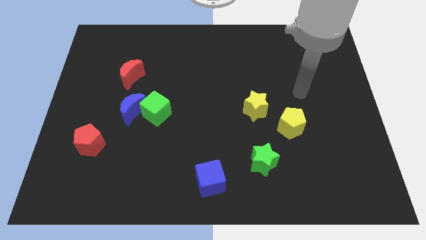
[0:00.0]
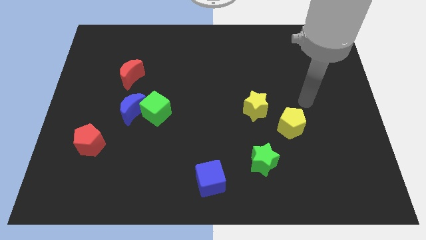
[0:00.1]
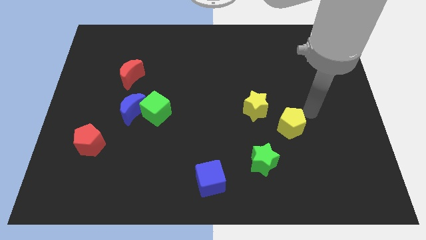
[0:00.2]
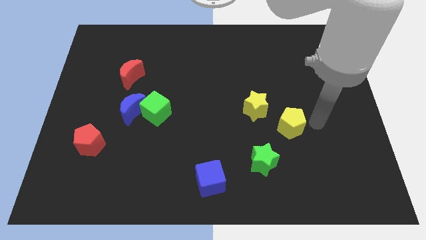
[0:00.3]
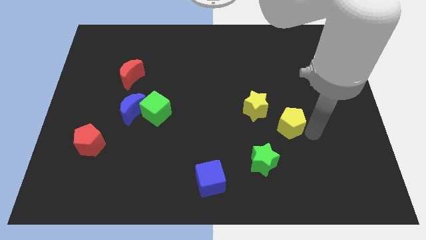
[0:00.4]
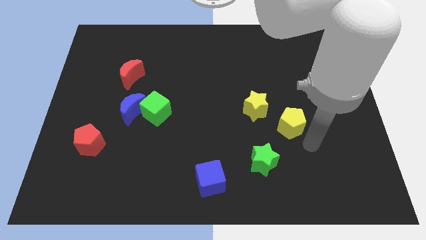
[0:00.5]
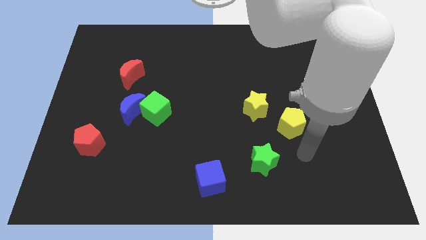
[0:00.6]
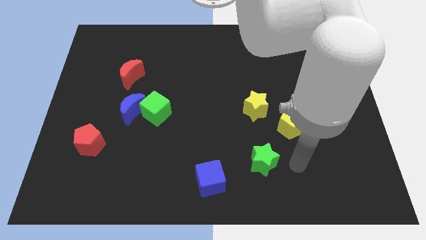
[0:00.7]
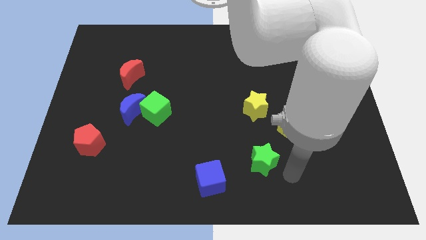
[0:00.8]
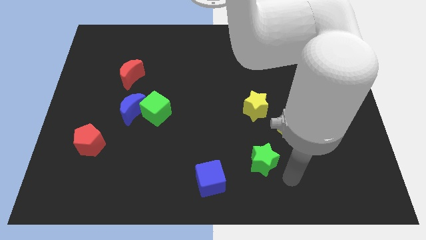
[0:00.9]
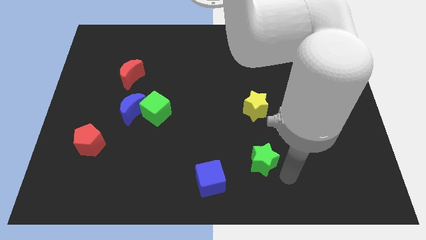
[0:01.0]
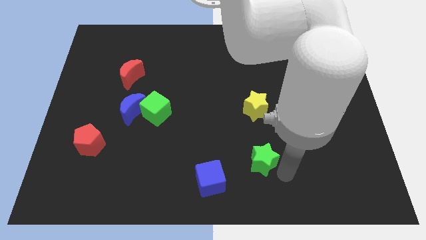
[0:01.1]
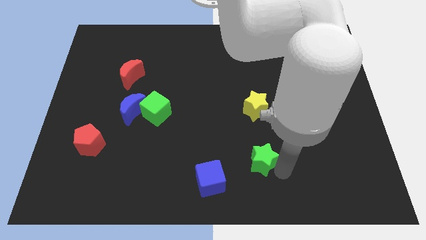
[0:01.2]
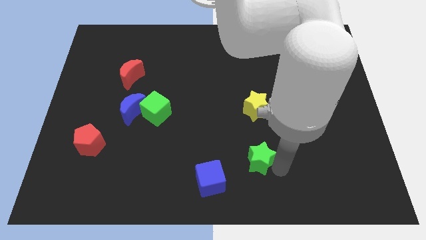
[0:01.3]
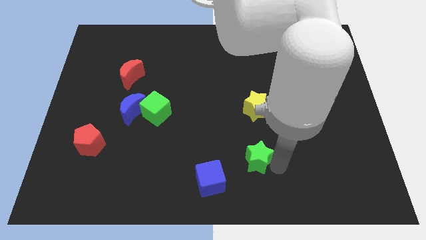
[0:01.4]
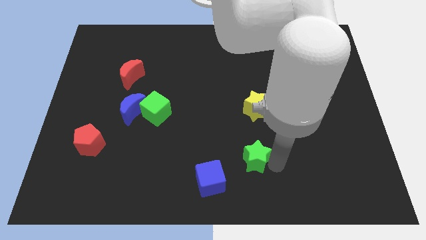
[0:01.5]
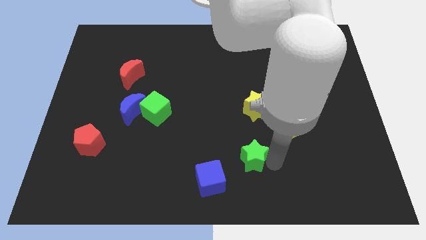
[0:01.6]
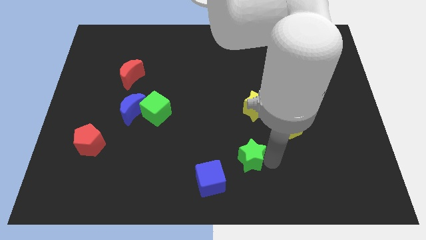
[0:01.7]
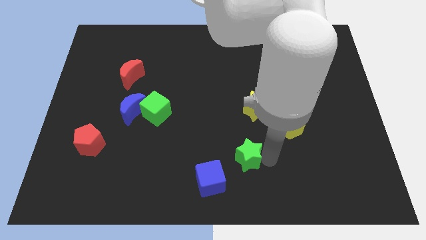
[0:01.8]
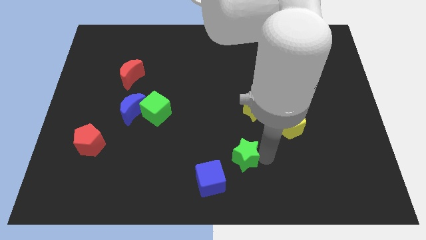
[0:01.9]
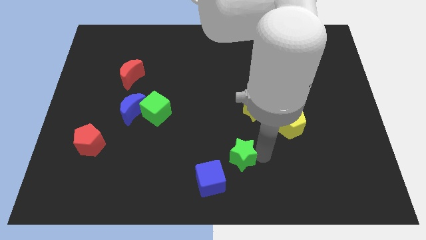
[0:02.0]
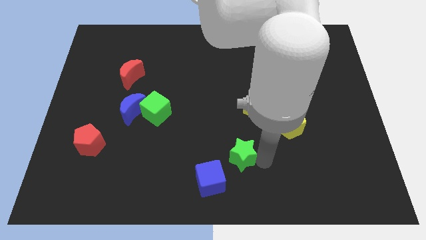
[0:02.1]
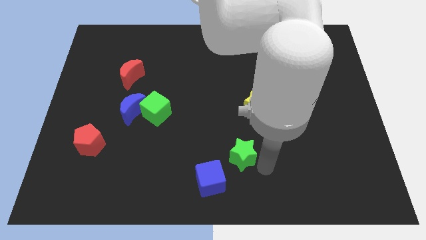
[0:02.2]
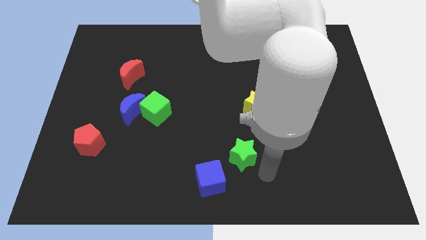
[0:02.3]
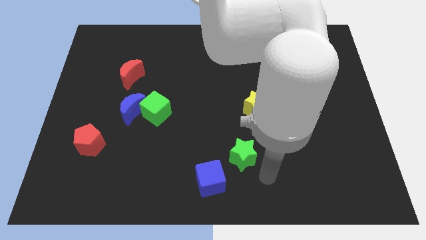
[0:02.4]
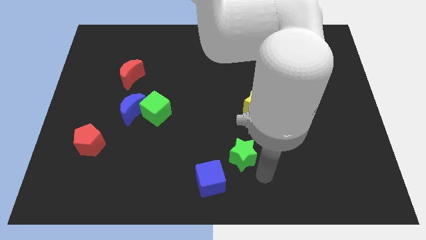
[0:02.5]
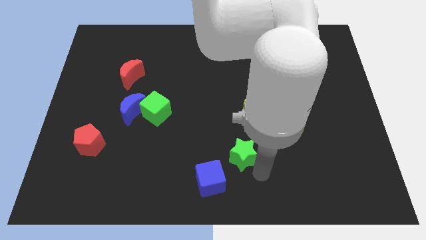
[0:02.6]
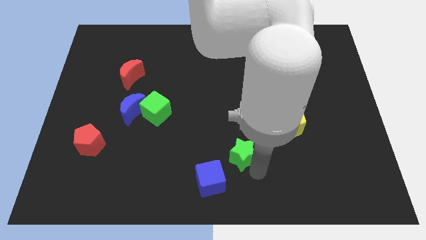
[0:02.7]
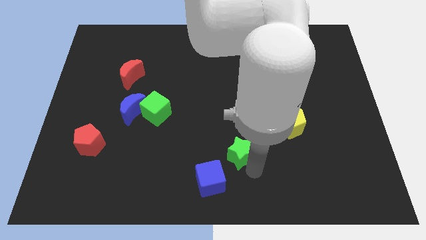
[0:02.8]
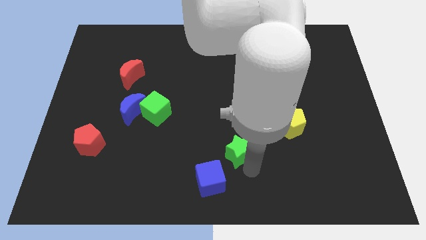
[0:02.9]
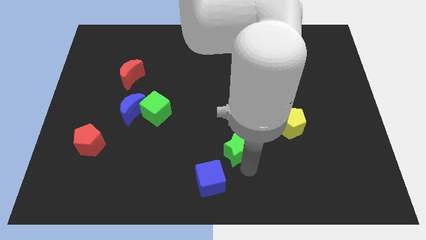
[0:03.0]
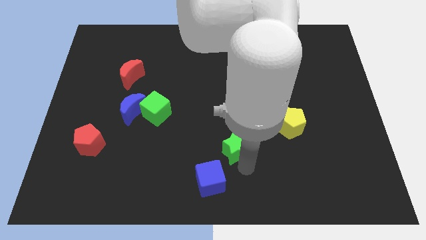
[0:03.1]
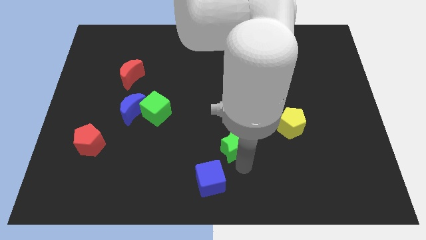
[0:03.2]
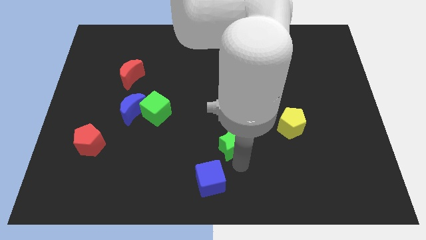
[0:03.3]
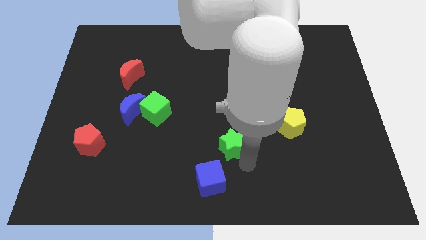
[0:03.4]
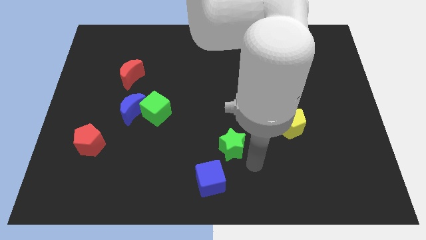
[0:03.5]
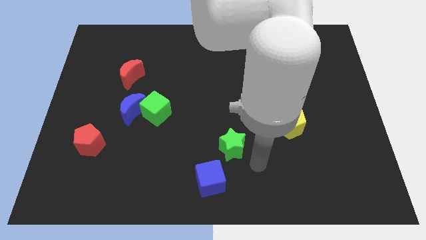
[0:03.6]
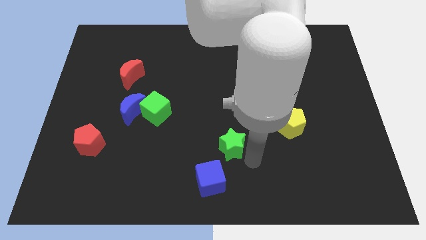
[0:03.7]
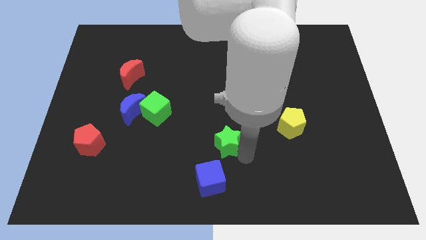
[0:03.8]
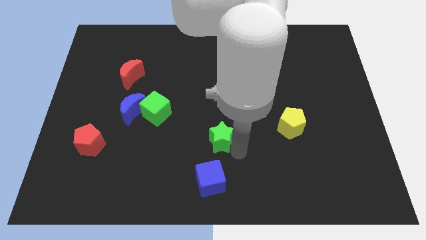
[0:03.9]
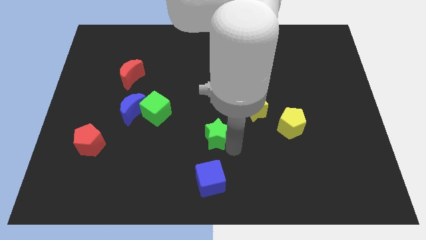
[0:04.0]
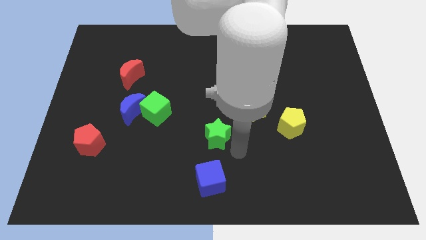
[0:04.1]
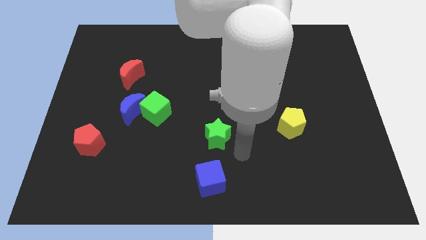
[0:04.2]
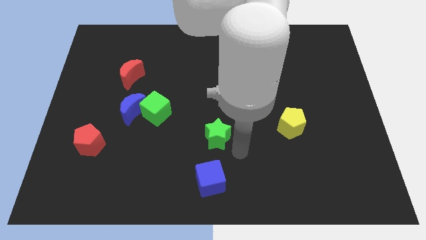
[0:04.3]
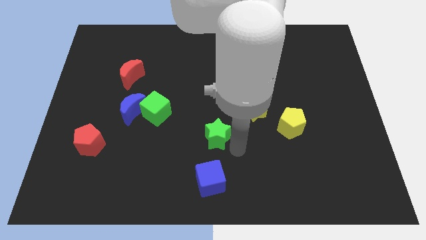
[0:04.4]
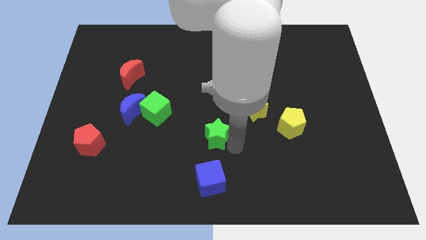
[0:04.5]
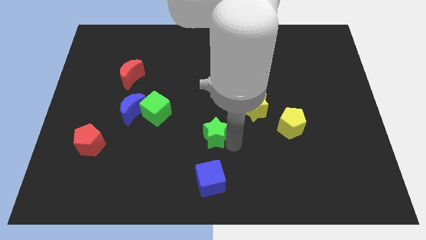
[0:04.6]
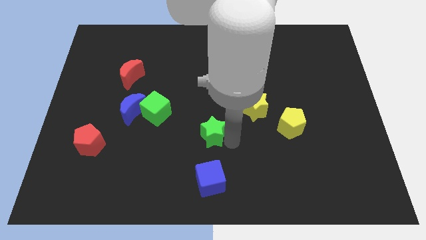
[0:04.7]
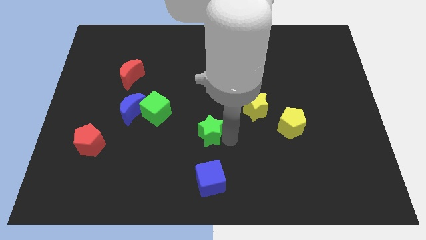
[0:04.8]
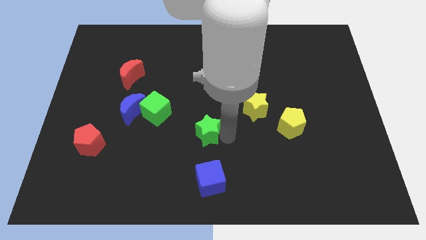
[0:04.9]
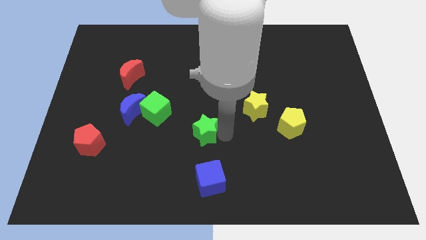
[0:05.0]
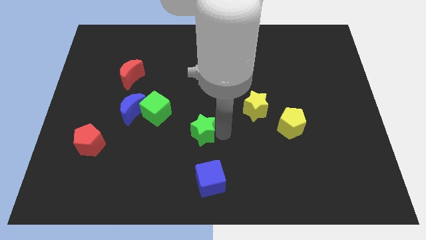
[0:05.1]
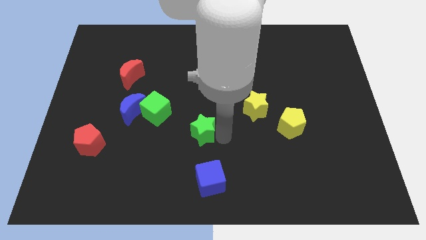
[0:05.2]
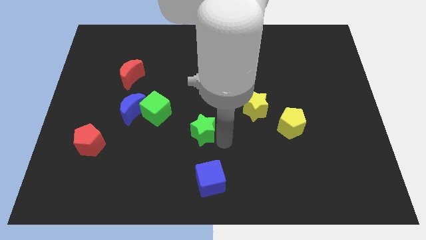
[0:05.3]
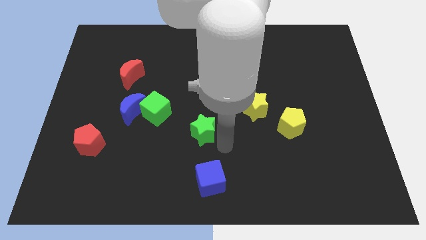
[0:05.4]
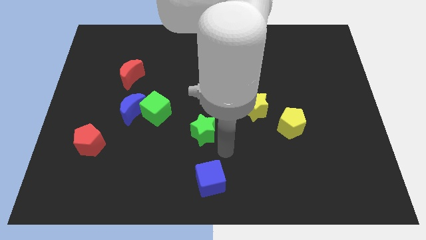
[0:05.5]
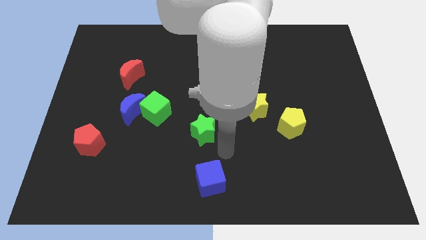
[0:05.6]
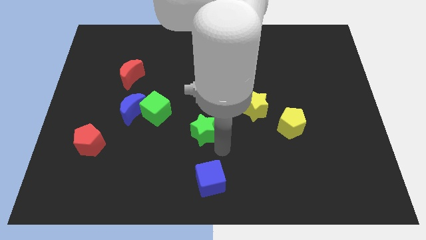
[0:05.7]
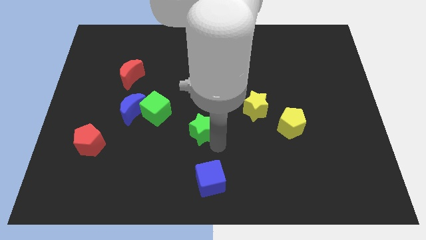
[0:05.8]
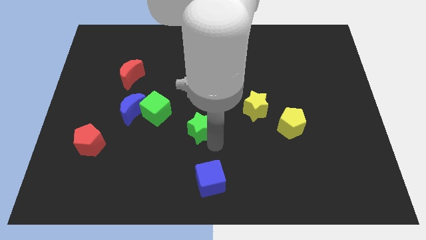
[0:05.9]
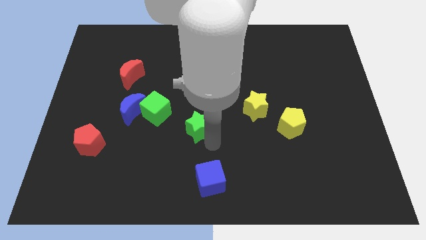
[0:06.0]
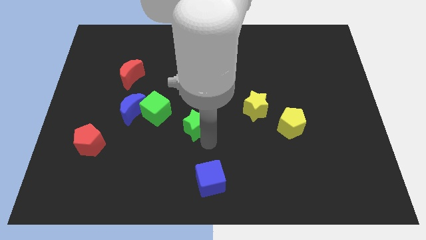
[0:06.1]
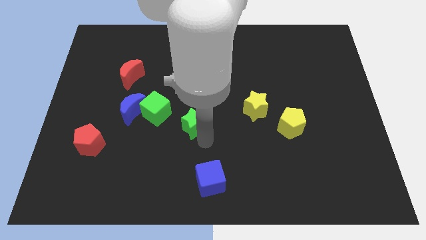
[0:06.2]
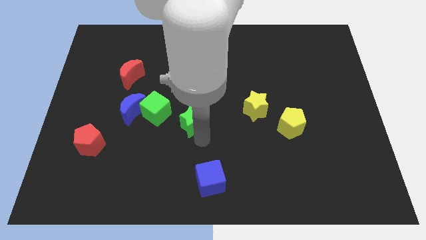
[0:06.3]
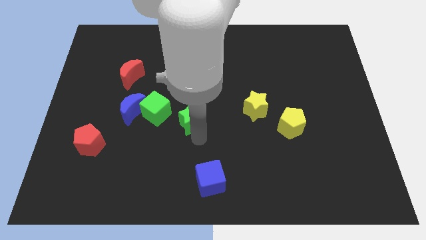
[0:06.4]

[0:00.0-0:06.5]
move the green star to the right of the blue moon

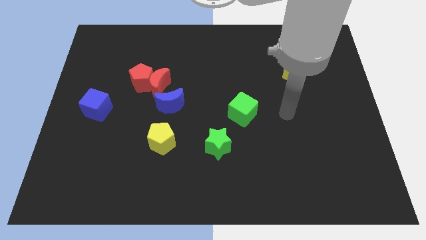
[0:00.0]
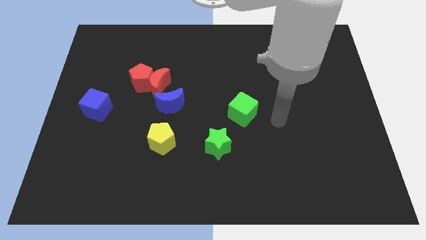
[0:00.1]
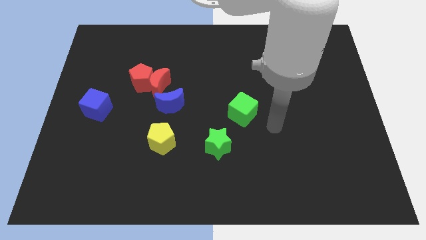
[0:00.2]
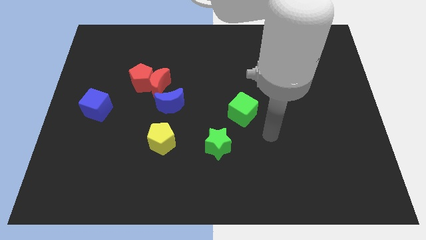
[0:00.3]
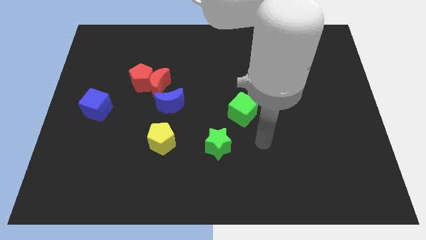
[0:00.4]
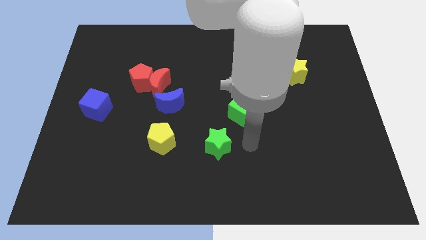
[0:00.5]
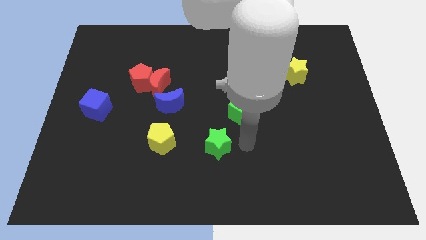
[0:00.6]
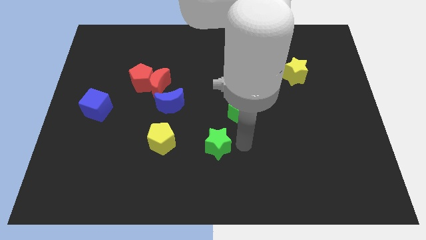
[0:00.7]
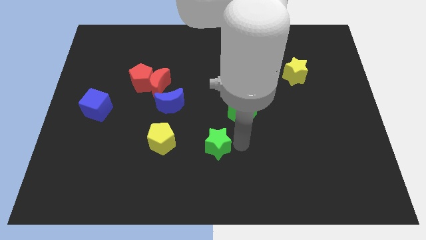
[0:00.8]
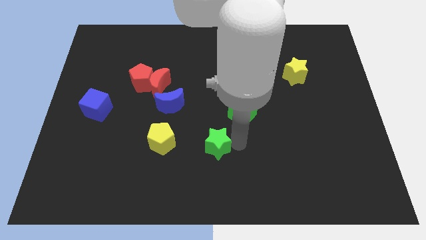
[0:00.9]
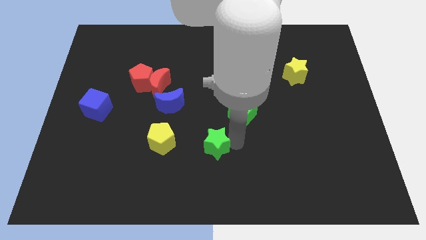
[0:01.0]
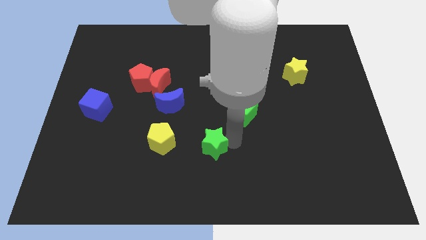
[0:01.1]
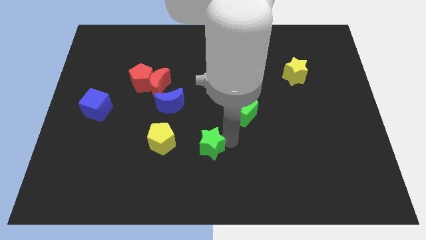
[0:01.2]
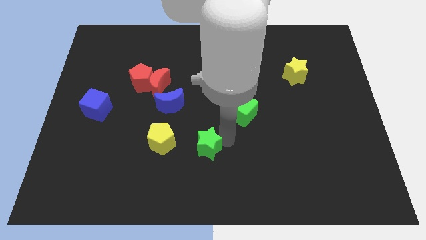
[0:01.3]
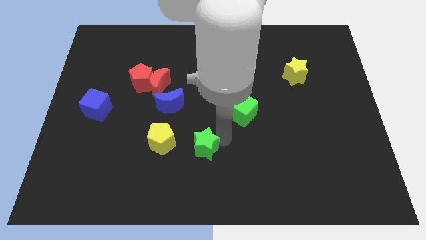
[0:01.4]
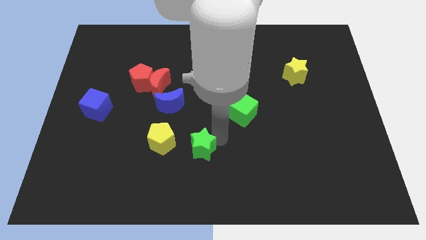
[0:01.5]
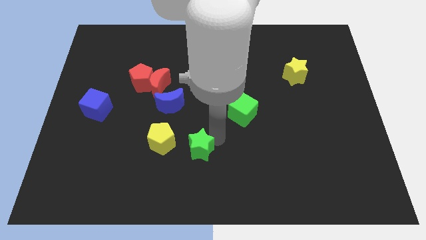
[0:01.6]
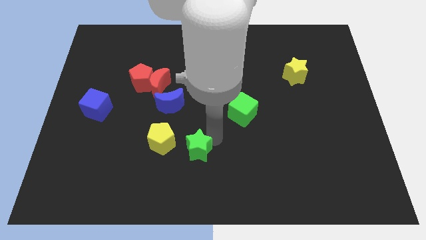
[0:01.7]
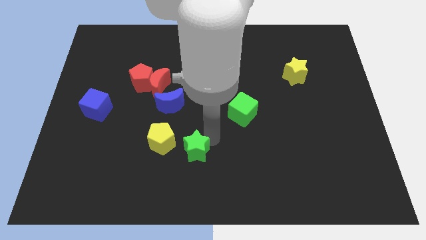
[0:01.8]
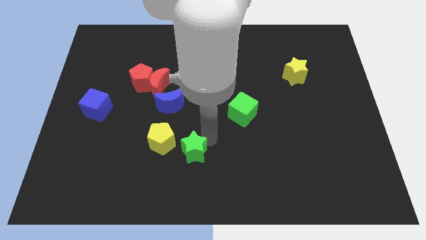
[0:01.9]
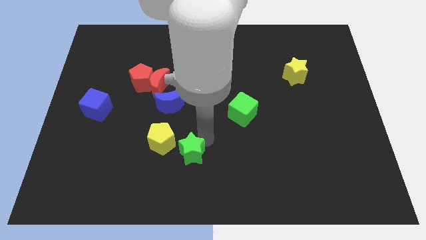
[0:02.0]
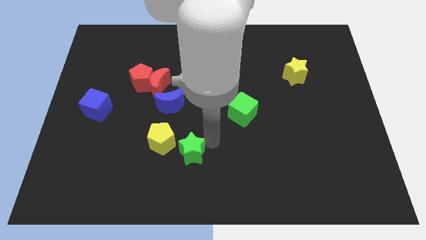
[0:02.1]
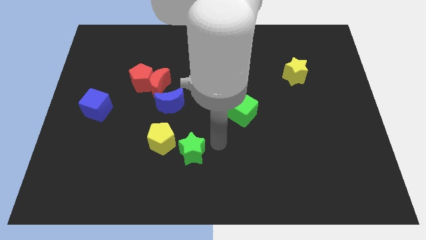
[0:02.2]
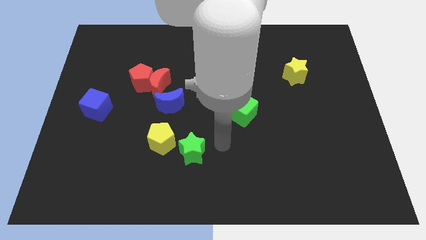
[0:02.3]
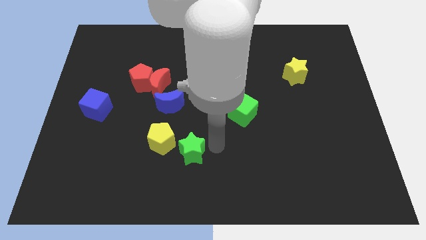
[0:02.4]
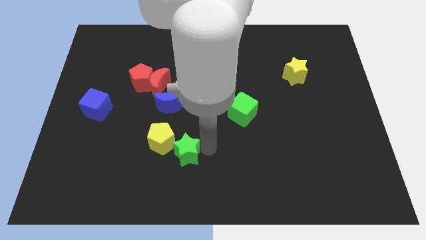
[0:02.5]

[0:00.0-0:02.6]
push the green star below the blue moon
